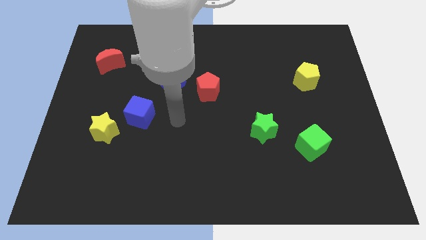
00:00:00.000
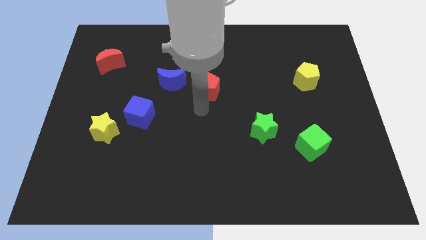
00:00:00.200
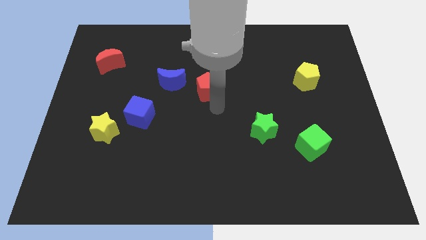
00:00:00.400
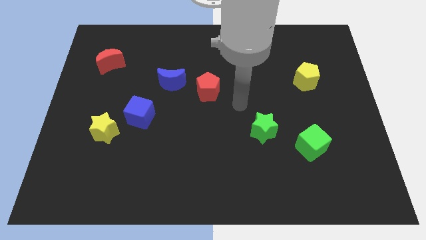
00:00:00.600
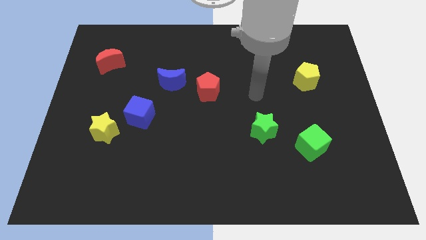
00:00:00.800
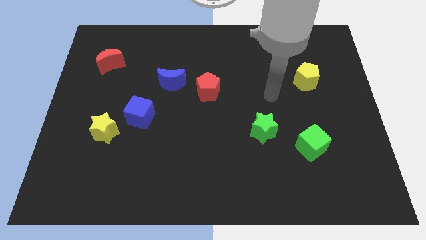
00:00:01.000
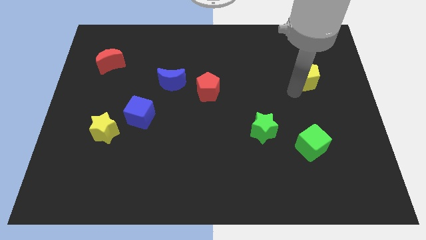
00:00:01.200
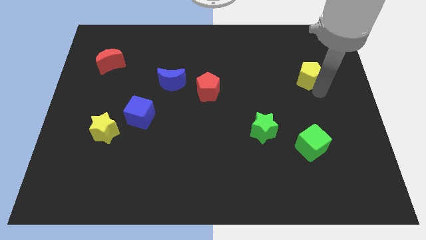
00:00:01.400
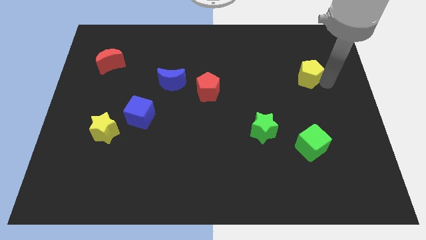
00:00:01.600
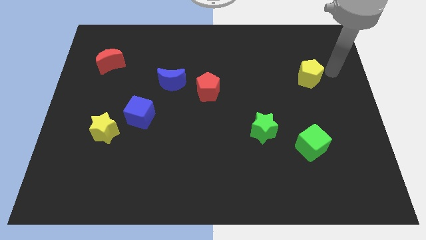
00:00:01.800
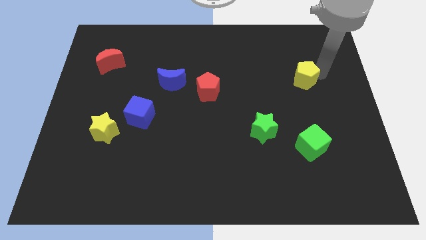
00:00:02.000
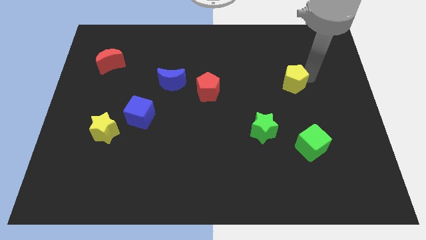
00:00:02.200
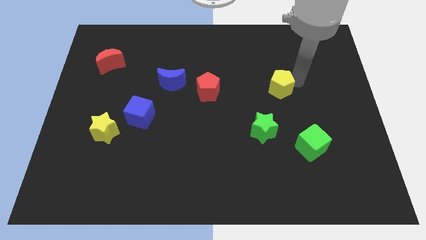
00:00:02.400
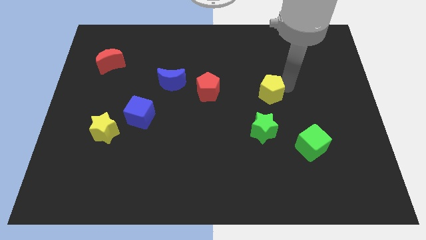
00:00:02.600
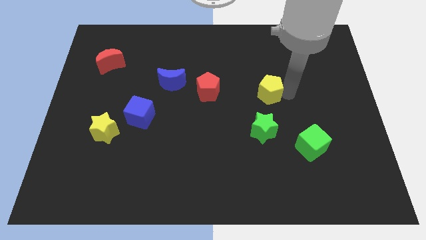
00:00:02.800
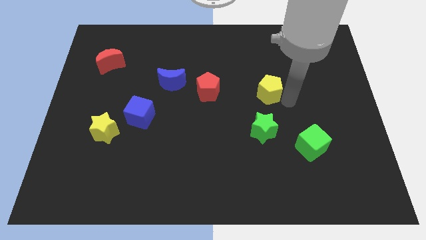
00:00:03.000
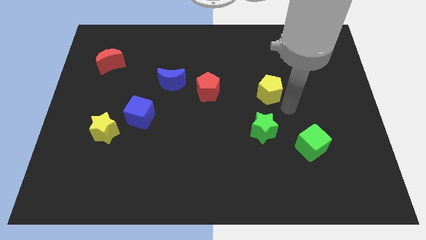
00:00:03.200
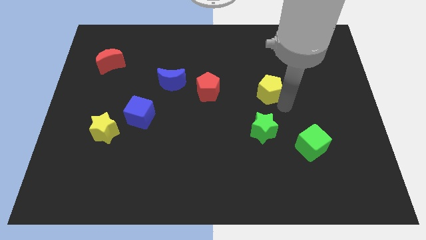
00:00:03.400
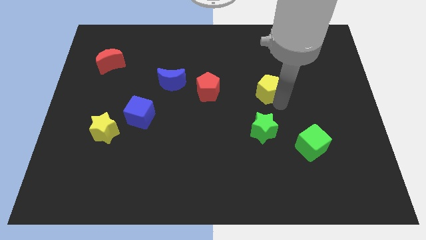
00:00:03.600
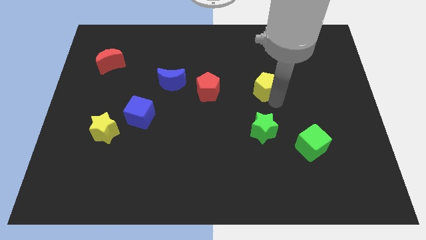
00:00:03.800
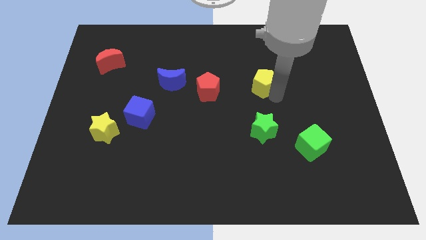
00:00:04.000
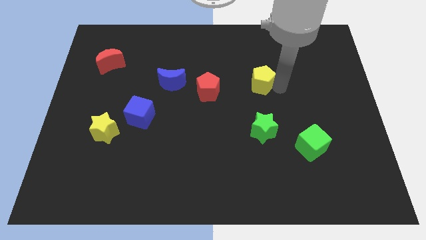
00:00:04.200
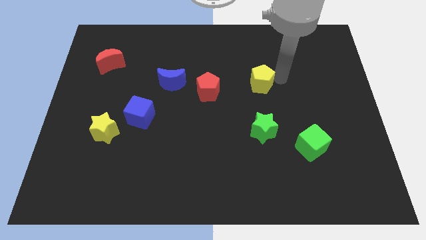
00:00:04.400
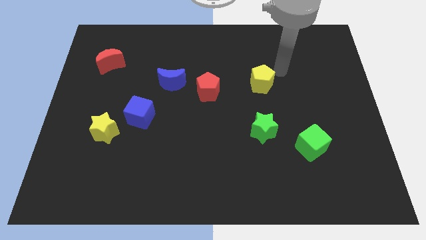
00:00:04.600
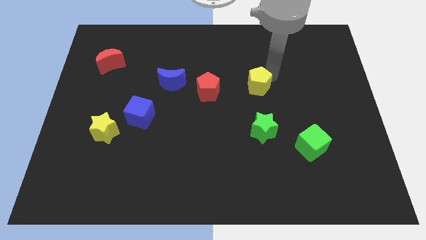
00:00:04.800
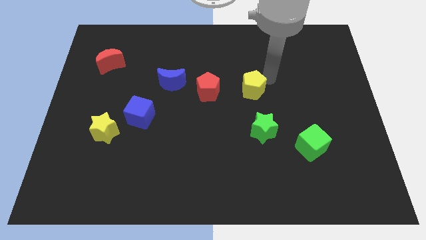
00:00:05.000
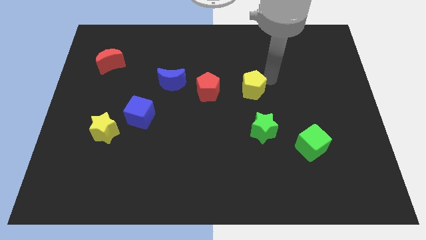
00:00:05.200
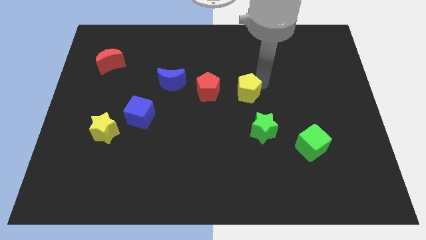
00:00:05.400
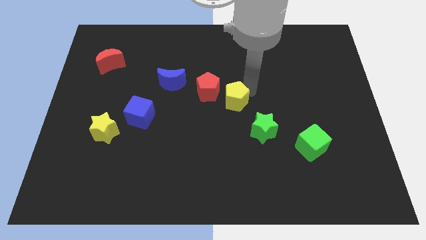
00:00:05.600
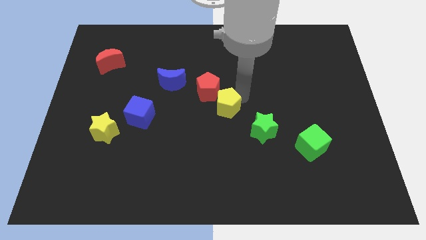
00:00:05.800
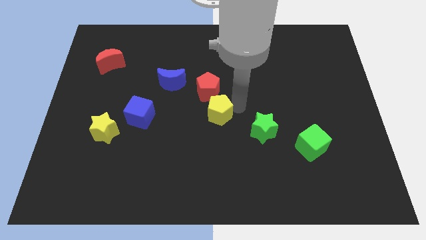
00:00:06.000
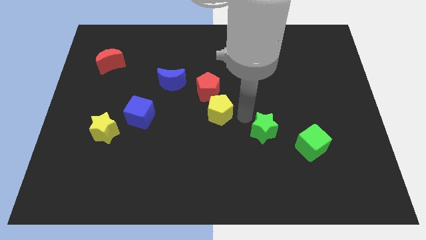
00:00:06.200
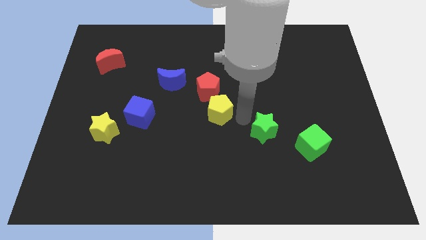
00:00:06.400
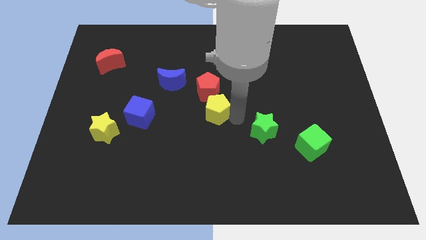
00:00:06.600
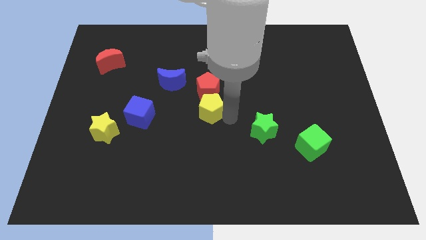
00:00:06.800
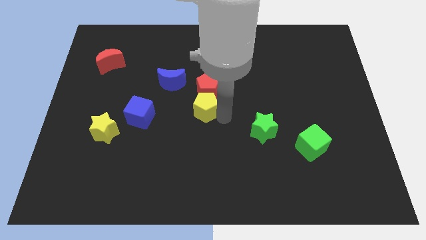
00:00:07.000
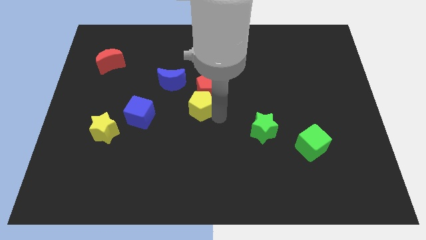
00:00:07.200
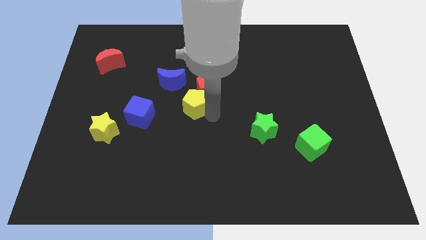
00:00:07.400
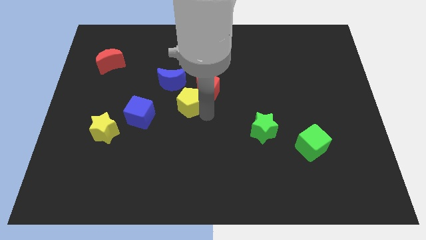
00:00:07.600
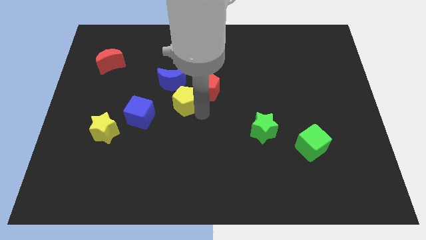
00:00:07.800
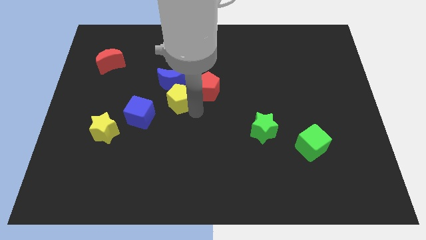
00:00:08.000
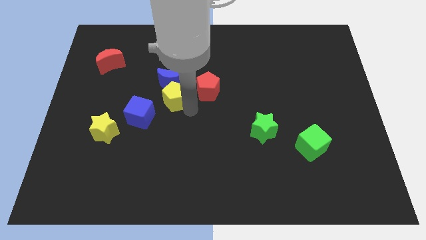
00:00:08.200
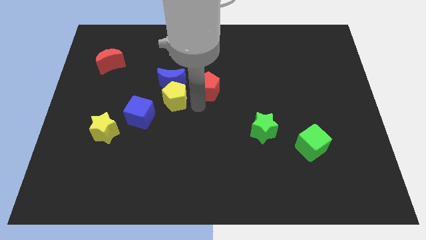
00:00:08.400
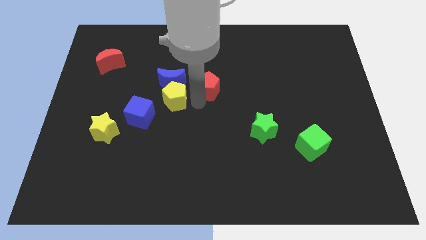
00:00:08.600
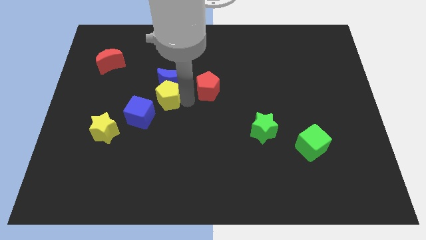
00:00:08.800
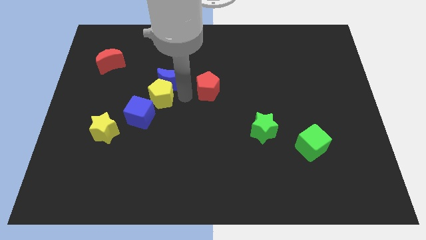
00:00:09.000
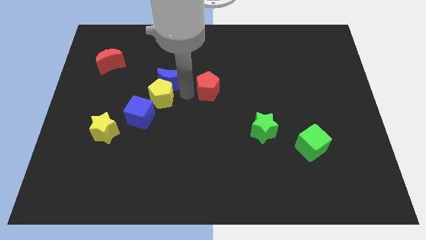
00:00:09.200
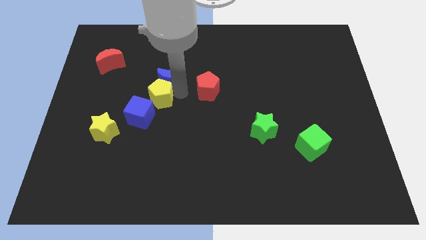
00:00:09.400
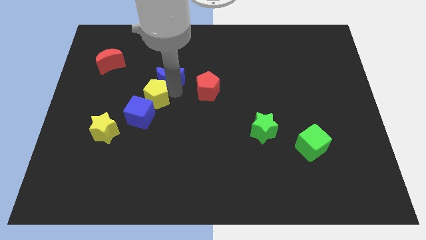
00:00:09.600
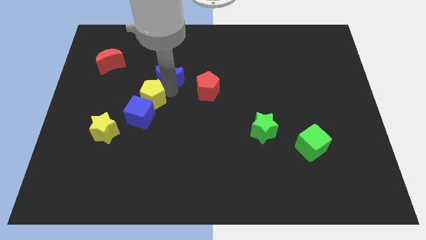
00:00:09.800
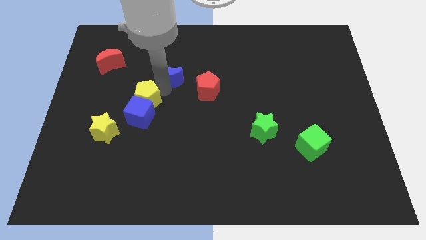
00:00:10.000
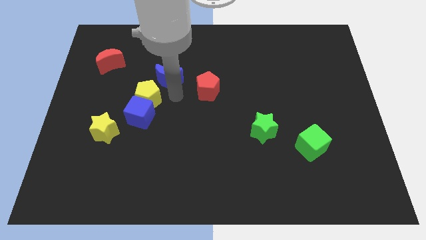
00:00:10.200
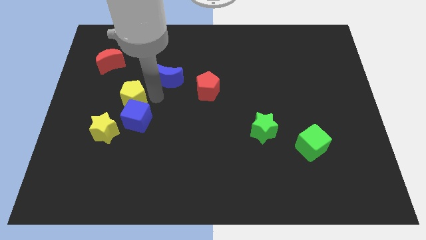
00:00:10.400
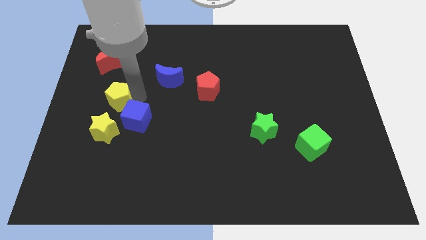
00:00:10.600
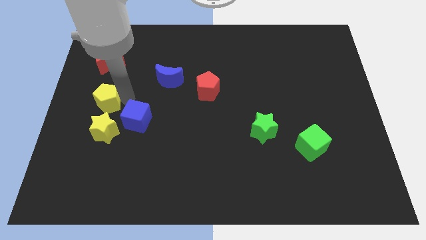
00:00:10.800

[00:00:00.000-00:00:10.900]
slide the yellow pentagon to the left side
